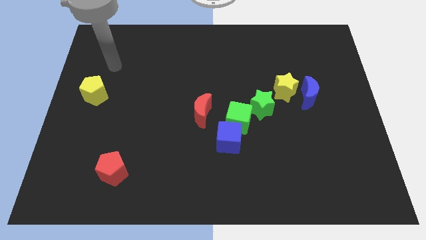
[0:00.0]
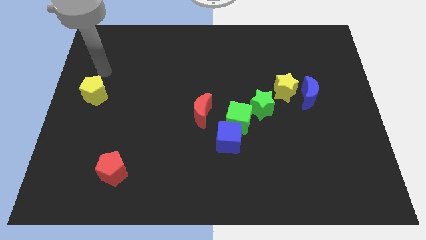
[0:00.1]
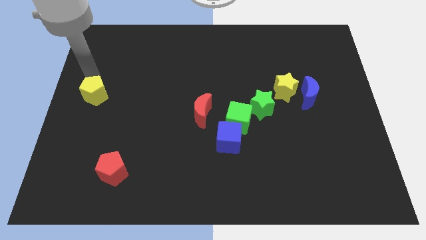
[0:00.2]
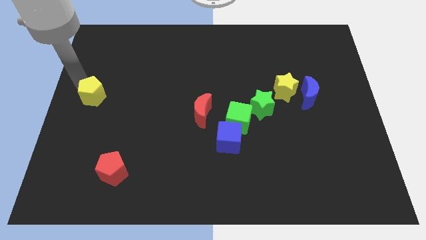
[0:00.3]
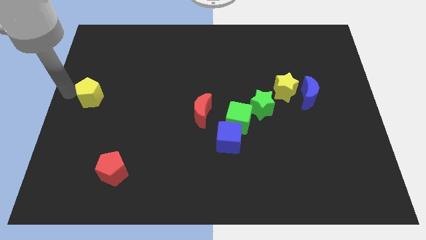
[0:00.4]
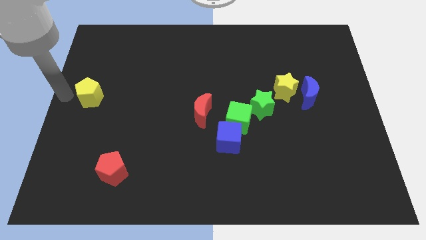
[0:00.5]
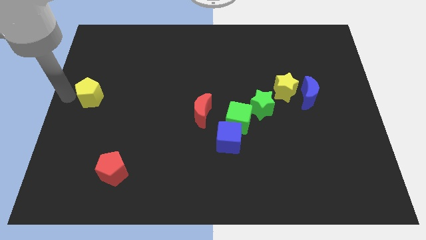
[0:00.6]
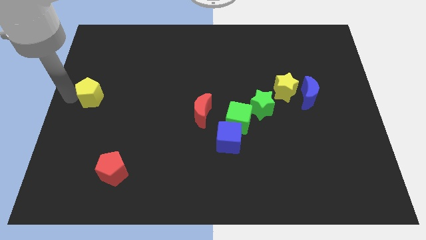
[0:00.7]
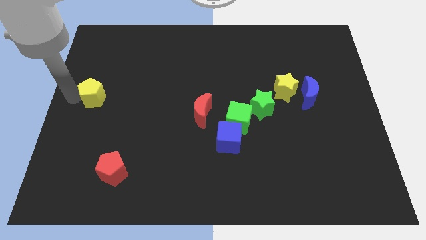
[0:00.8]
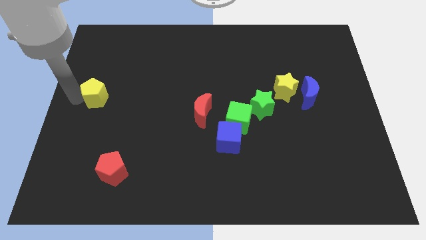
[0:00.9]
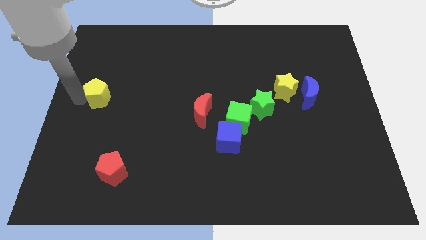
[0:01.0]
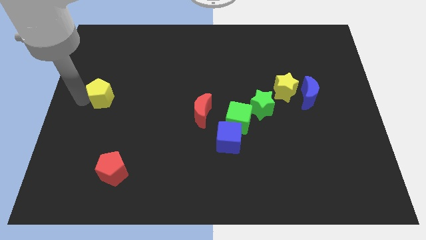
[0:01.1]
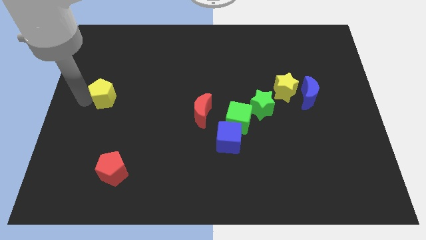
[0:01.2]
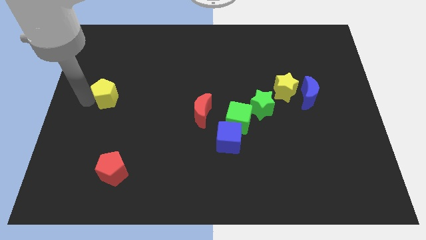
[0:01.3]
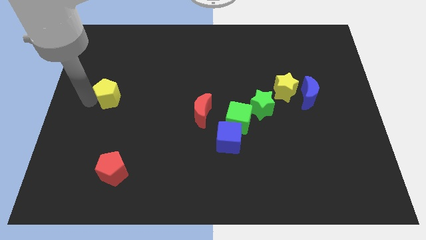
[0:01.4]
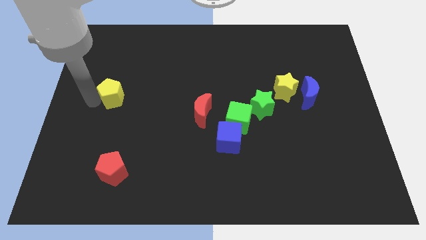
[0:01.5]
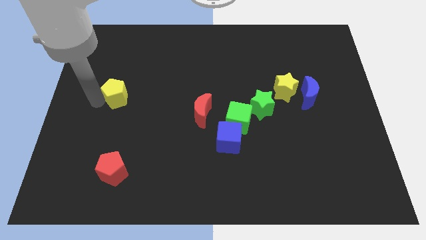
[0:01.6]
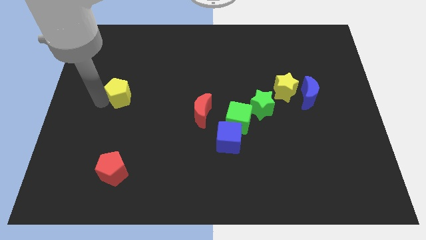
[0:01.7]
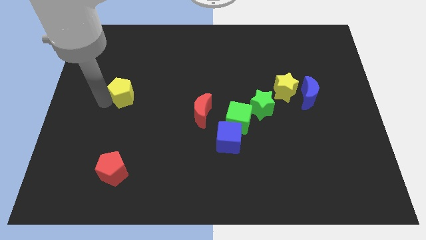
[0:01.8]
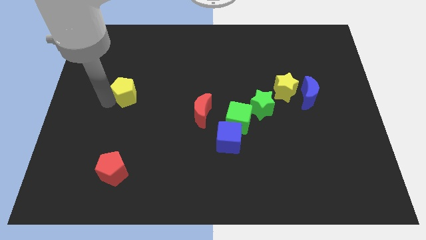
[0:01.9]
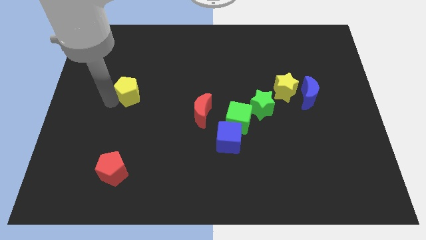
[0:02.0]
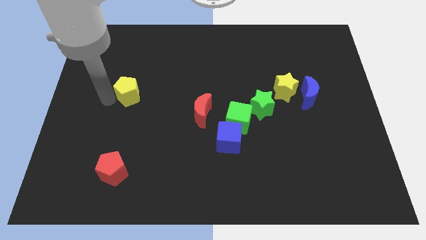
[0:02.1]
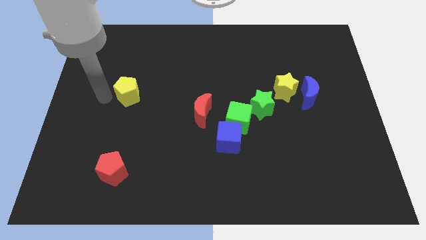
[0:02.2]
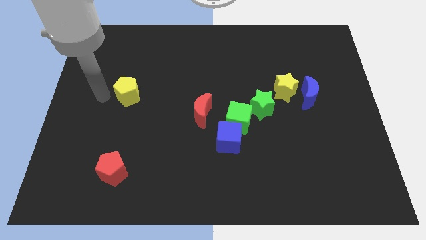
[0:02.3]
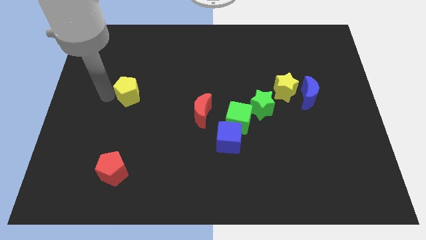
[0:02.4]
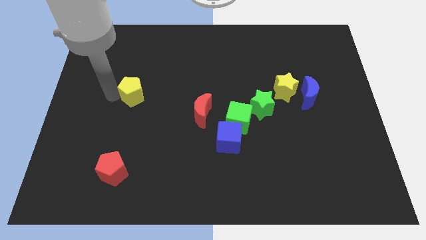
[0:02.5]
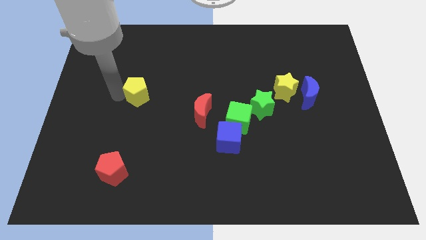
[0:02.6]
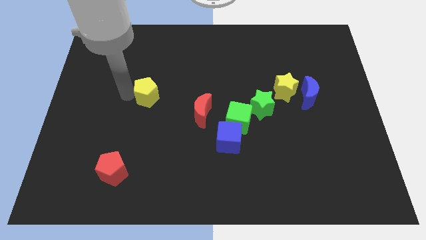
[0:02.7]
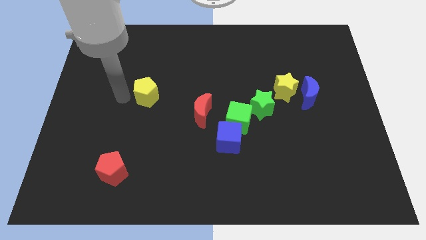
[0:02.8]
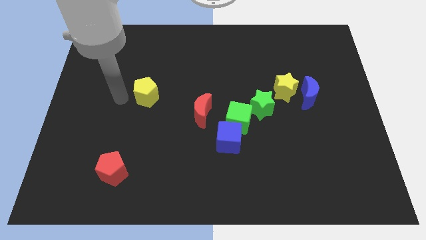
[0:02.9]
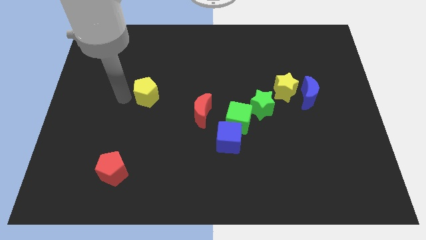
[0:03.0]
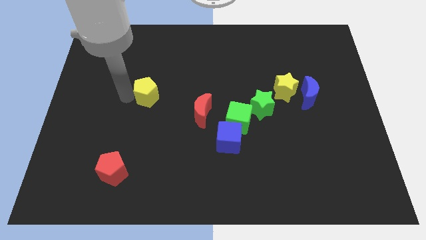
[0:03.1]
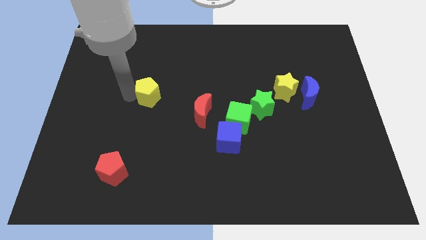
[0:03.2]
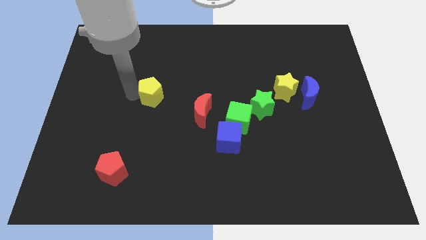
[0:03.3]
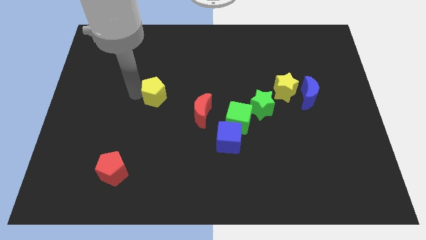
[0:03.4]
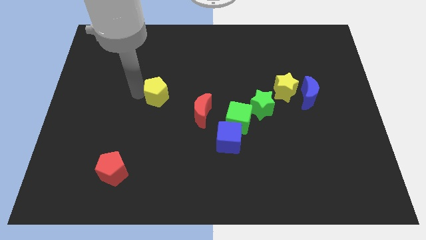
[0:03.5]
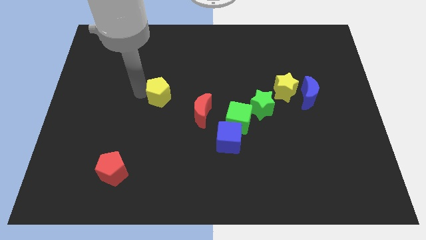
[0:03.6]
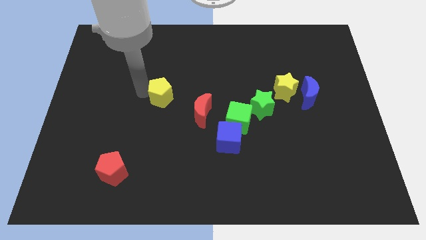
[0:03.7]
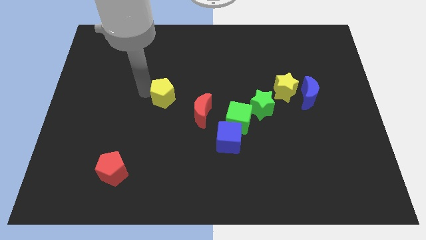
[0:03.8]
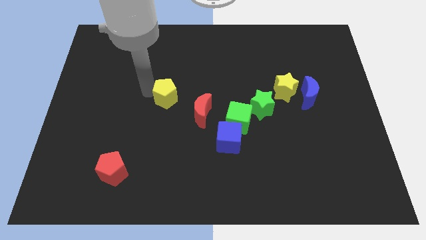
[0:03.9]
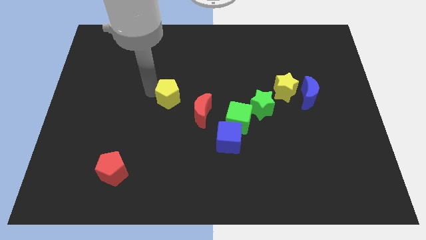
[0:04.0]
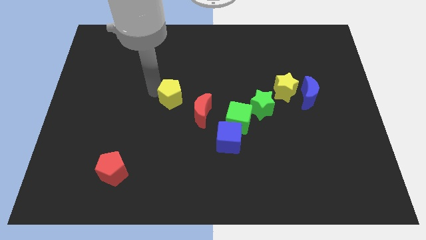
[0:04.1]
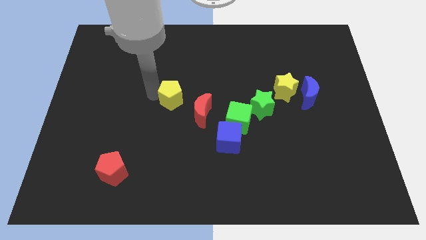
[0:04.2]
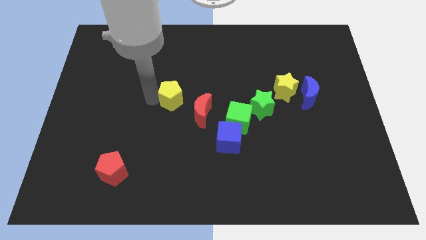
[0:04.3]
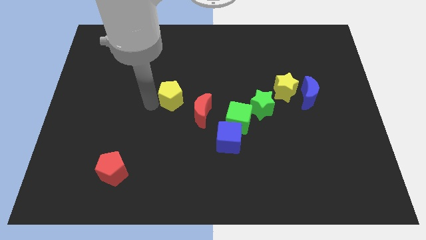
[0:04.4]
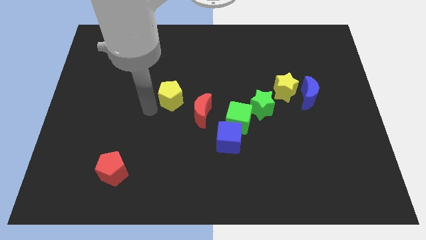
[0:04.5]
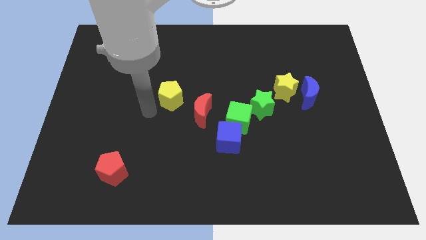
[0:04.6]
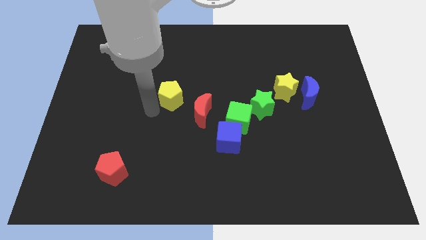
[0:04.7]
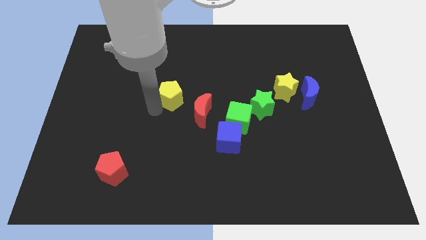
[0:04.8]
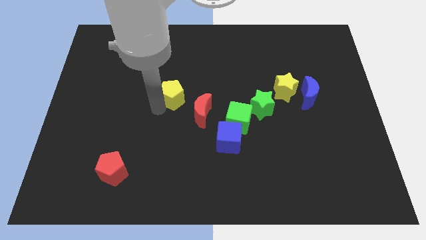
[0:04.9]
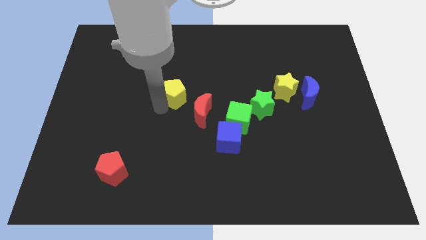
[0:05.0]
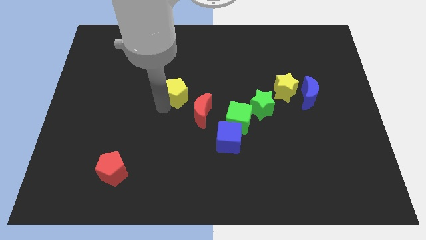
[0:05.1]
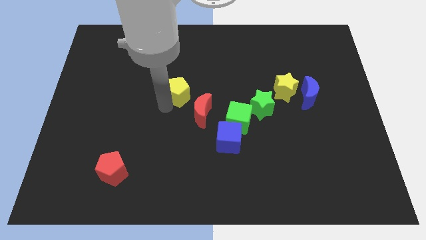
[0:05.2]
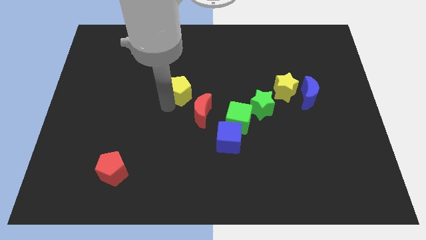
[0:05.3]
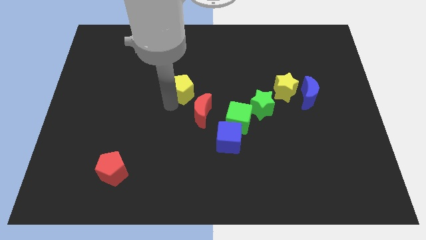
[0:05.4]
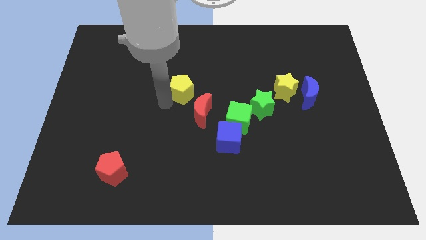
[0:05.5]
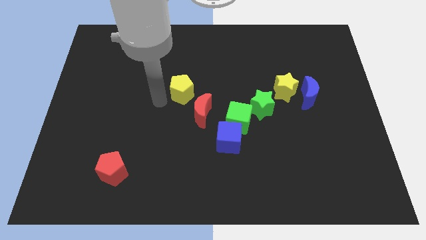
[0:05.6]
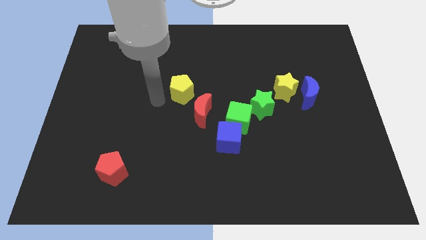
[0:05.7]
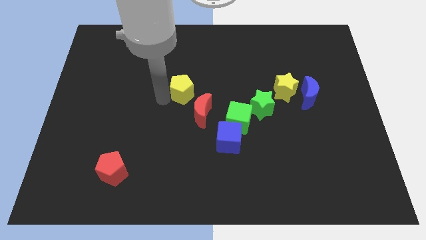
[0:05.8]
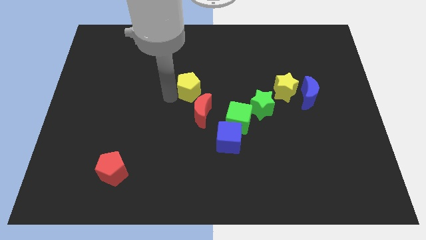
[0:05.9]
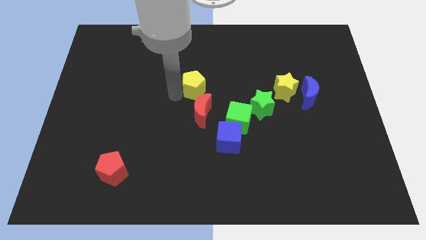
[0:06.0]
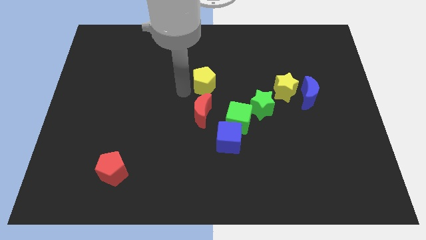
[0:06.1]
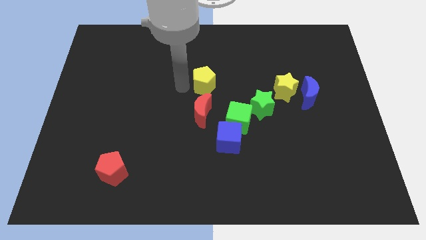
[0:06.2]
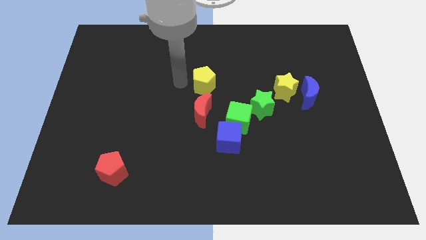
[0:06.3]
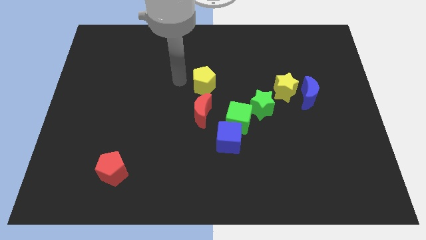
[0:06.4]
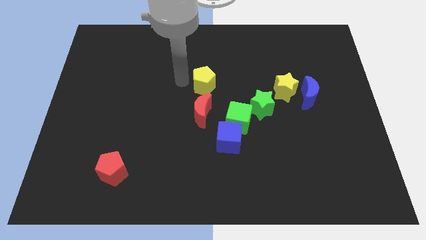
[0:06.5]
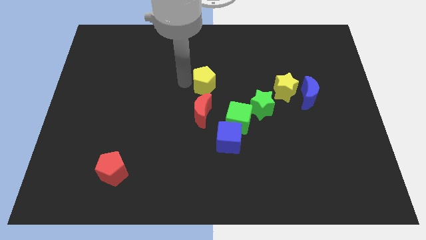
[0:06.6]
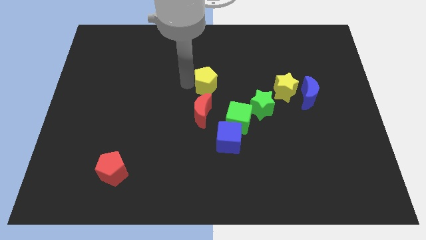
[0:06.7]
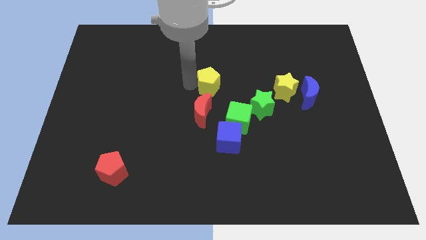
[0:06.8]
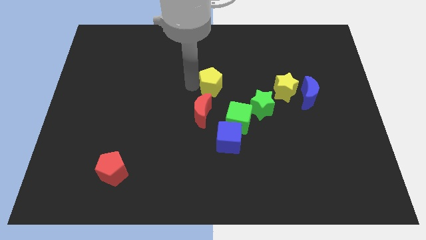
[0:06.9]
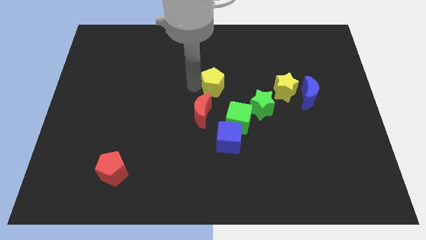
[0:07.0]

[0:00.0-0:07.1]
move the yellow pentagon to the top left side of the green cube
